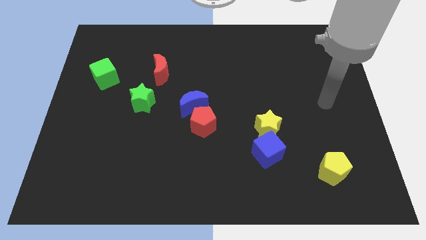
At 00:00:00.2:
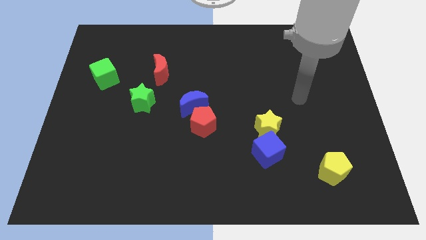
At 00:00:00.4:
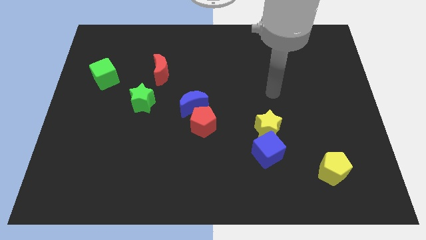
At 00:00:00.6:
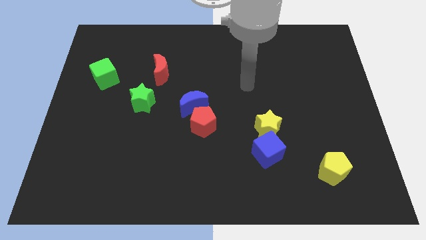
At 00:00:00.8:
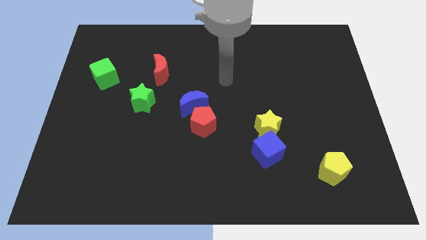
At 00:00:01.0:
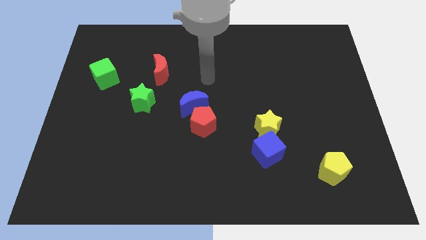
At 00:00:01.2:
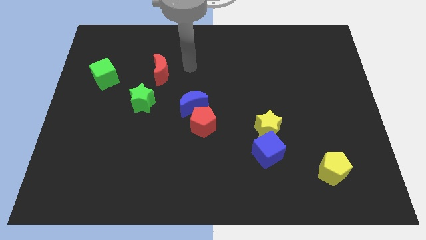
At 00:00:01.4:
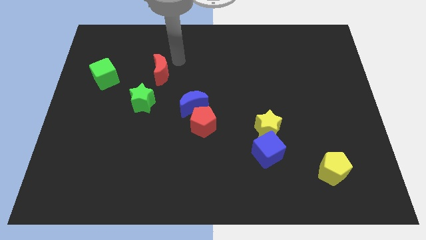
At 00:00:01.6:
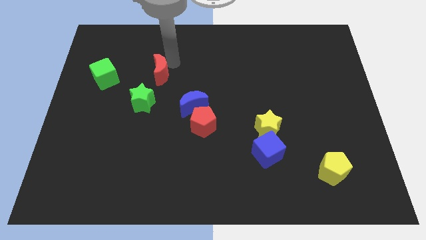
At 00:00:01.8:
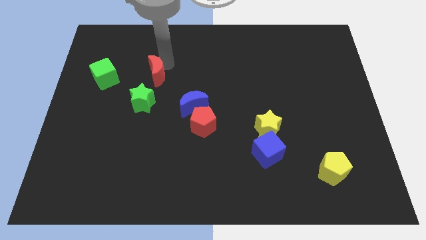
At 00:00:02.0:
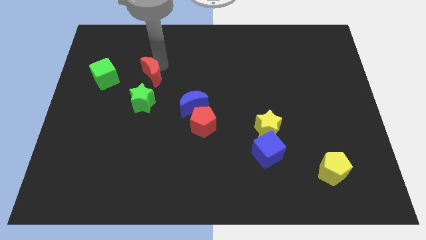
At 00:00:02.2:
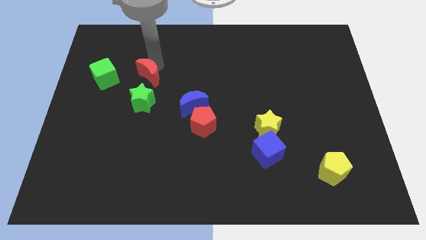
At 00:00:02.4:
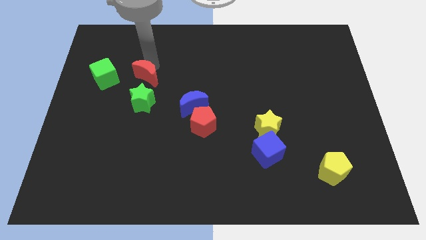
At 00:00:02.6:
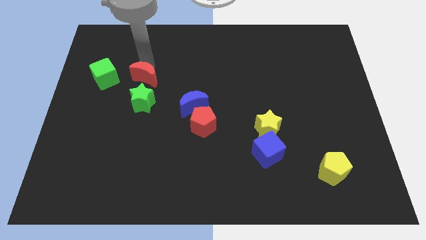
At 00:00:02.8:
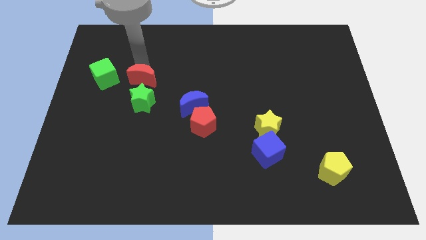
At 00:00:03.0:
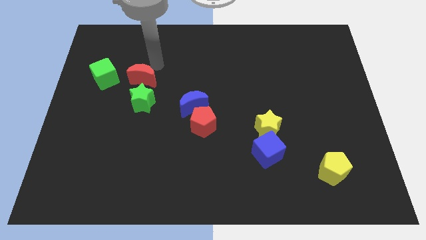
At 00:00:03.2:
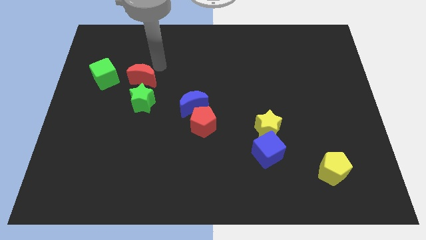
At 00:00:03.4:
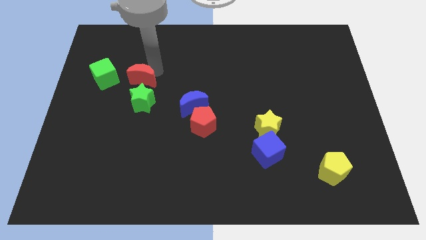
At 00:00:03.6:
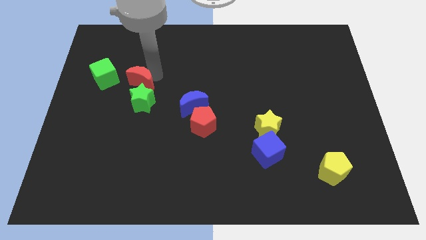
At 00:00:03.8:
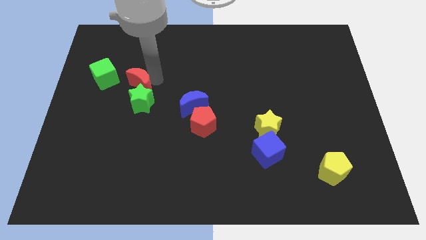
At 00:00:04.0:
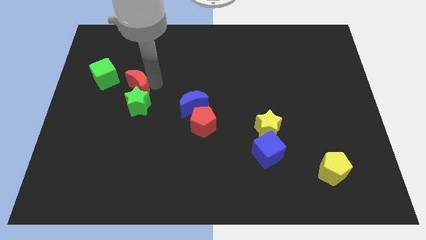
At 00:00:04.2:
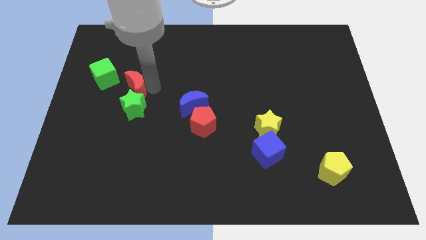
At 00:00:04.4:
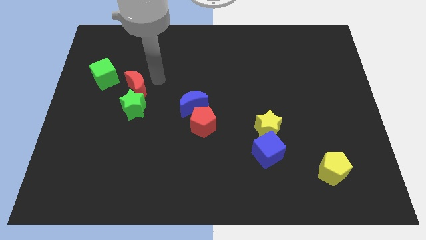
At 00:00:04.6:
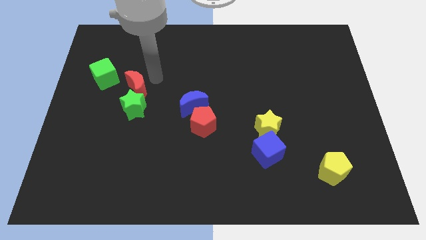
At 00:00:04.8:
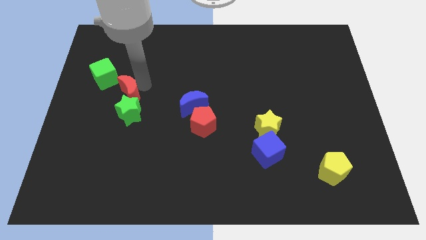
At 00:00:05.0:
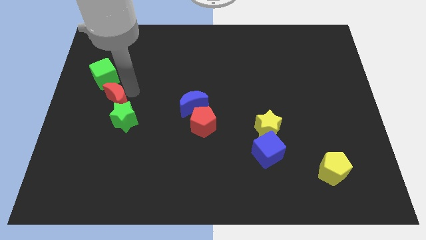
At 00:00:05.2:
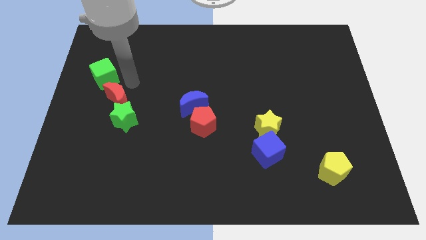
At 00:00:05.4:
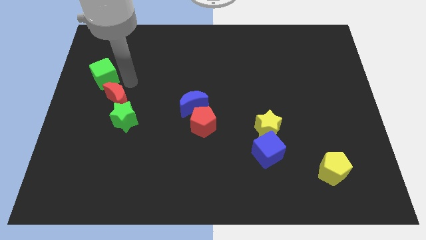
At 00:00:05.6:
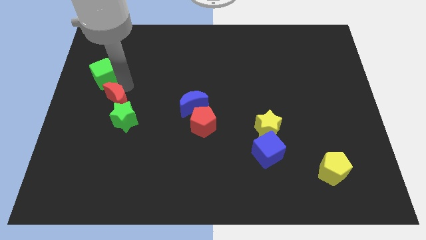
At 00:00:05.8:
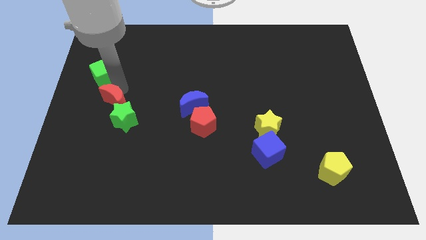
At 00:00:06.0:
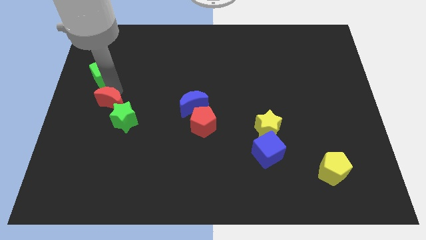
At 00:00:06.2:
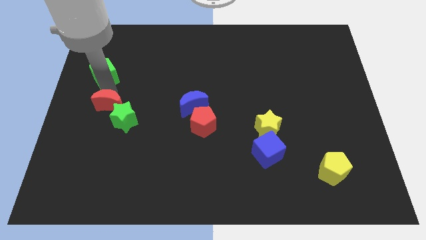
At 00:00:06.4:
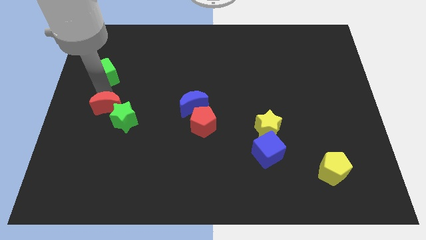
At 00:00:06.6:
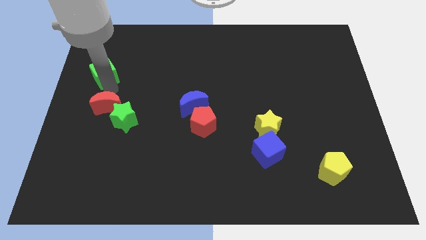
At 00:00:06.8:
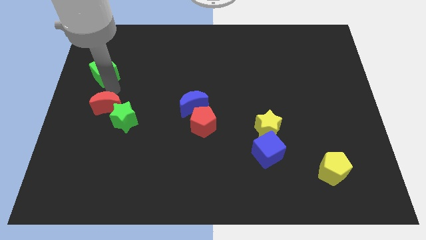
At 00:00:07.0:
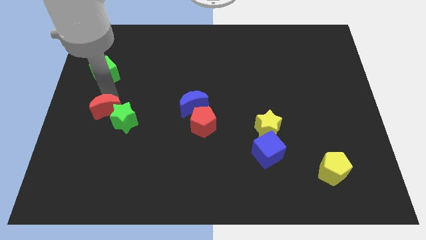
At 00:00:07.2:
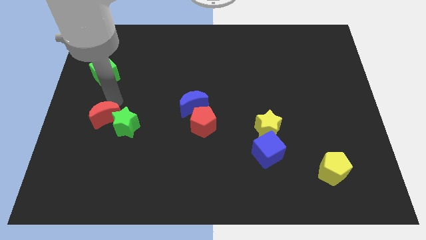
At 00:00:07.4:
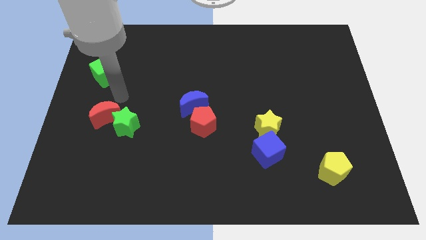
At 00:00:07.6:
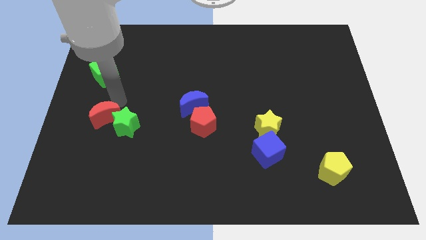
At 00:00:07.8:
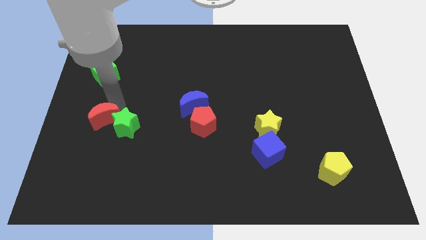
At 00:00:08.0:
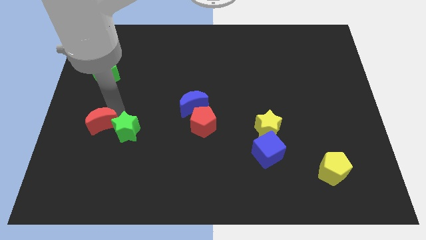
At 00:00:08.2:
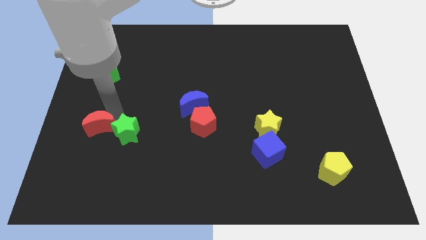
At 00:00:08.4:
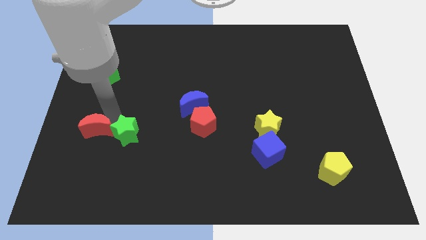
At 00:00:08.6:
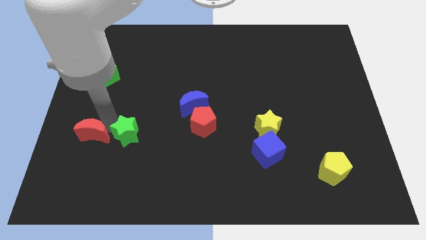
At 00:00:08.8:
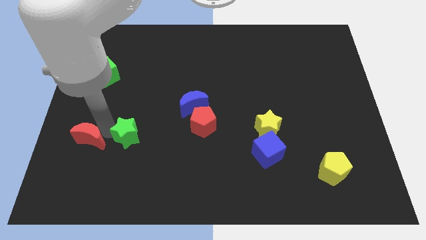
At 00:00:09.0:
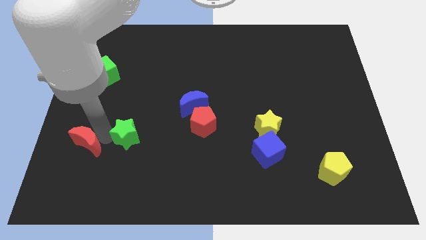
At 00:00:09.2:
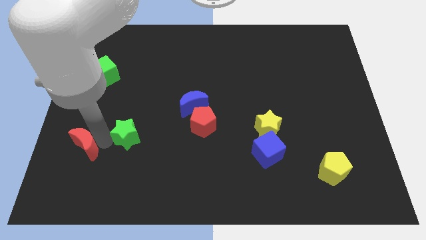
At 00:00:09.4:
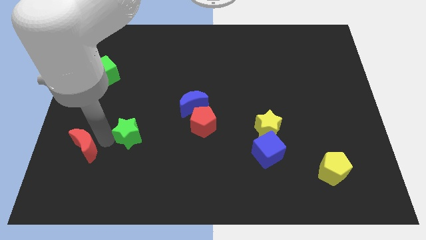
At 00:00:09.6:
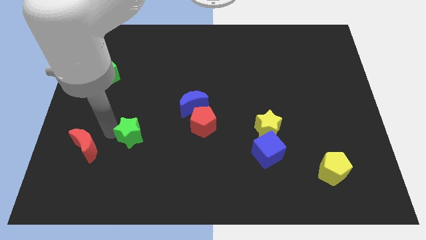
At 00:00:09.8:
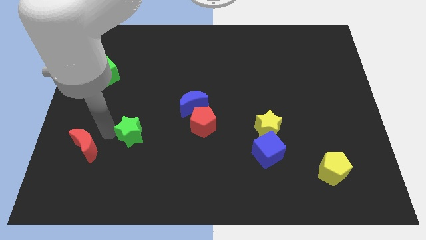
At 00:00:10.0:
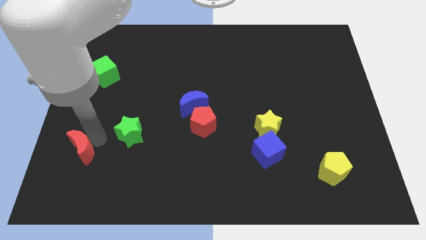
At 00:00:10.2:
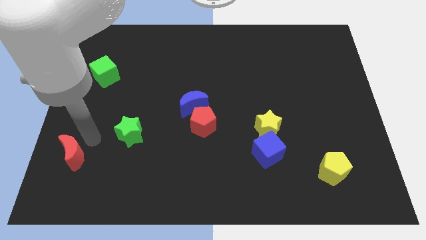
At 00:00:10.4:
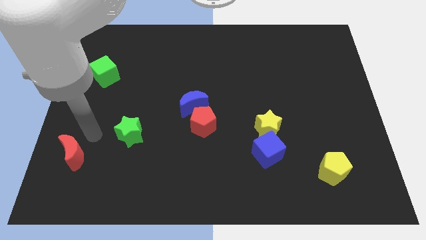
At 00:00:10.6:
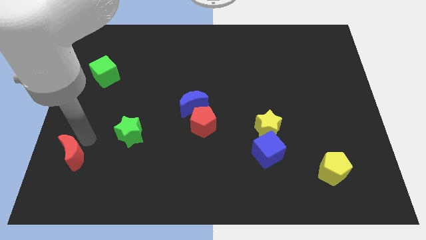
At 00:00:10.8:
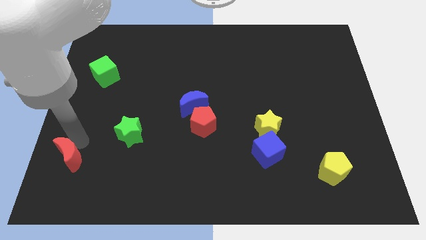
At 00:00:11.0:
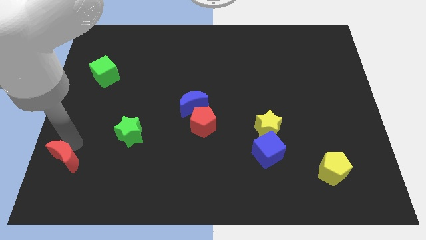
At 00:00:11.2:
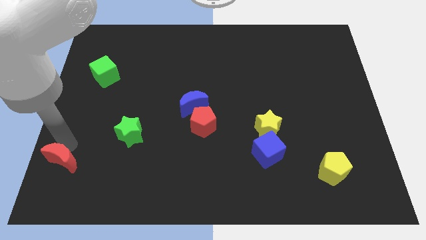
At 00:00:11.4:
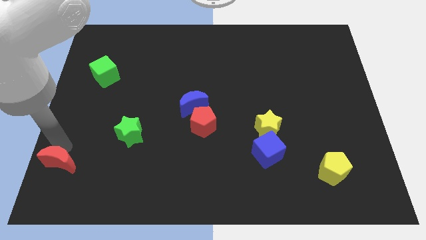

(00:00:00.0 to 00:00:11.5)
push the red moon to the bottom left of the board
